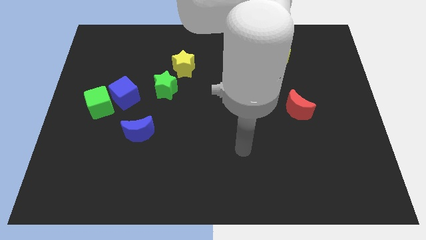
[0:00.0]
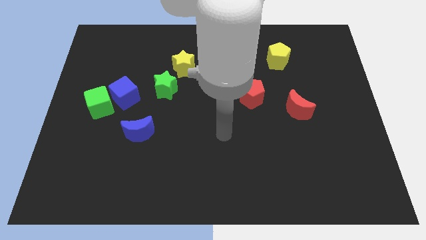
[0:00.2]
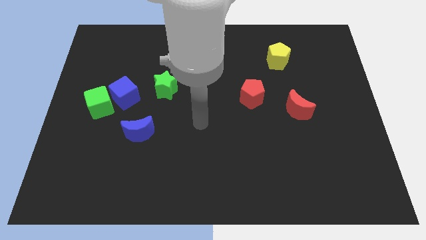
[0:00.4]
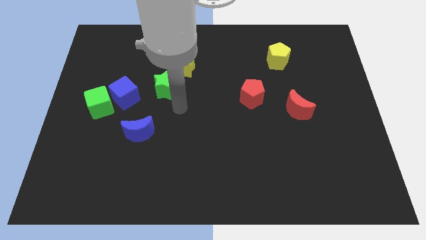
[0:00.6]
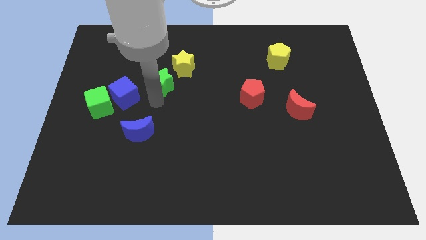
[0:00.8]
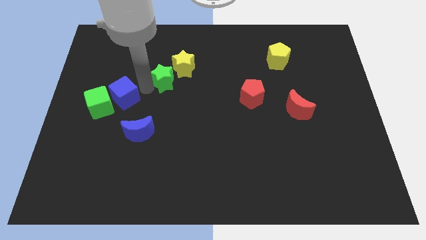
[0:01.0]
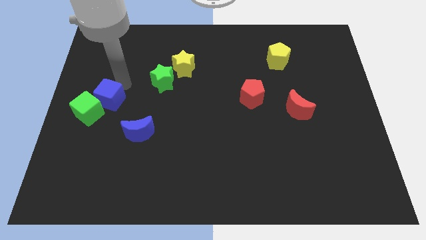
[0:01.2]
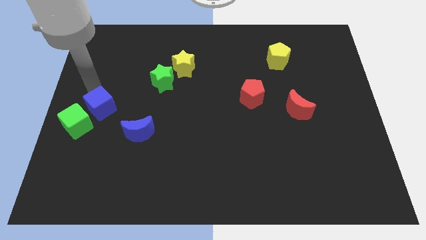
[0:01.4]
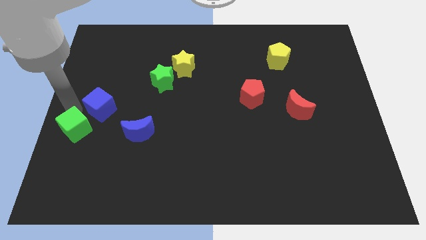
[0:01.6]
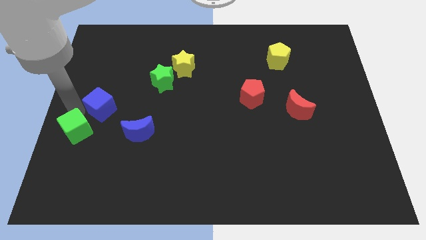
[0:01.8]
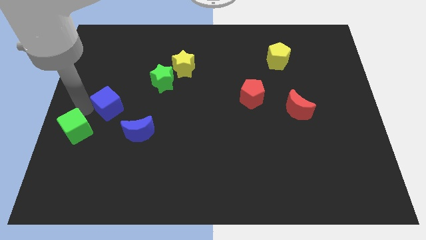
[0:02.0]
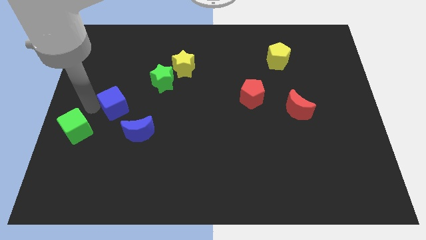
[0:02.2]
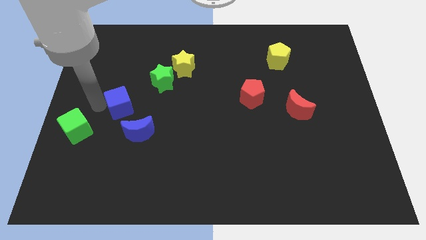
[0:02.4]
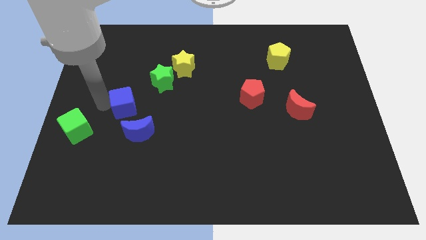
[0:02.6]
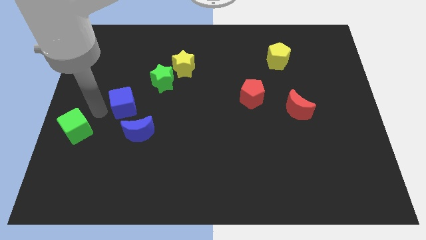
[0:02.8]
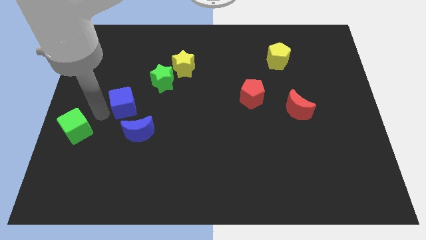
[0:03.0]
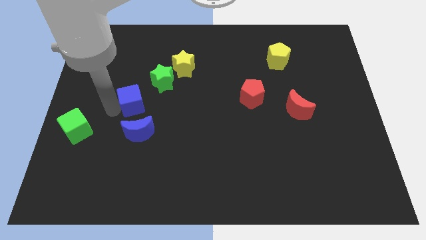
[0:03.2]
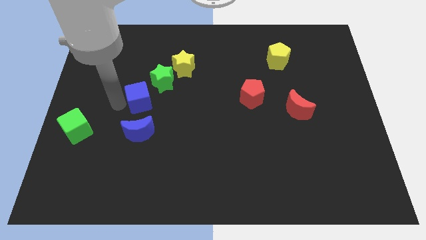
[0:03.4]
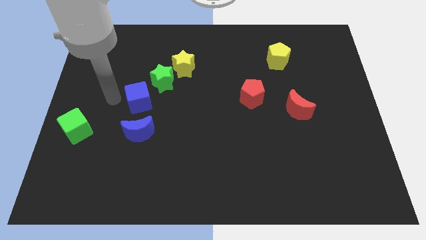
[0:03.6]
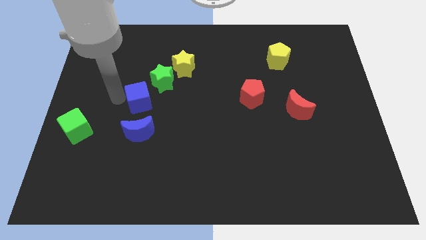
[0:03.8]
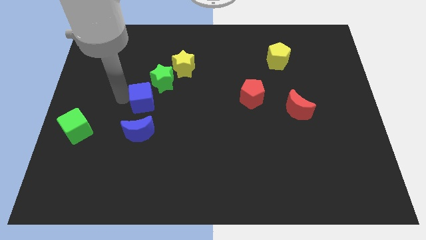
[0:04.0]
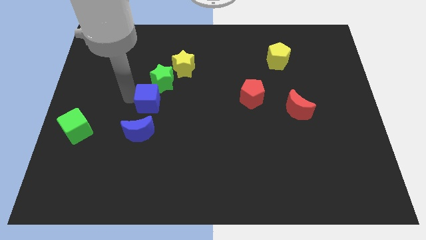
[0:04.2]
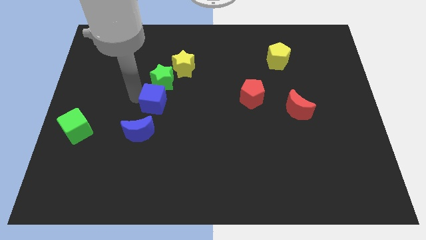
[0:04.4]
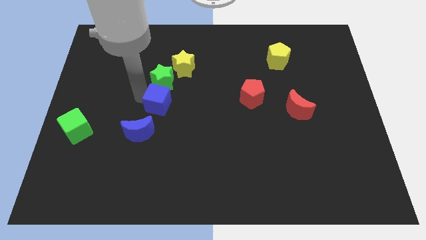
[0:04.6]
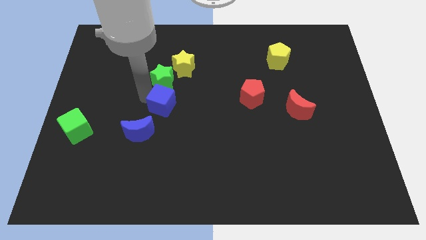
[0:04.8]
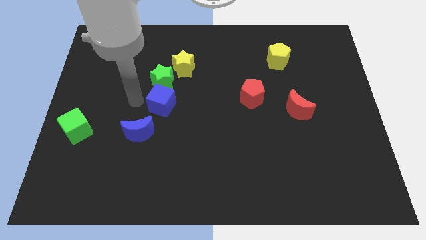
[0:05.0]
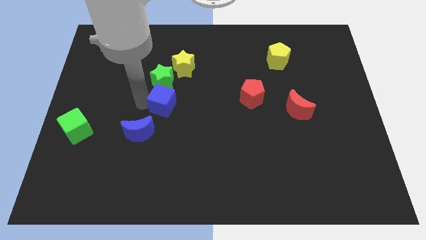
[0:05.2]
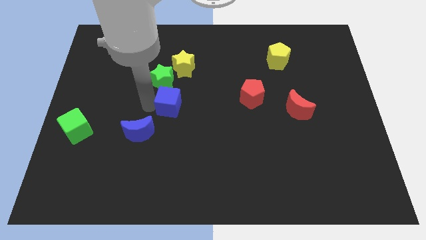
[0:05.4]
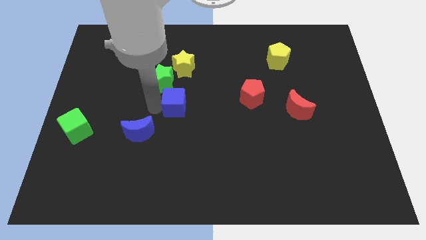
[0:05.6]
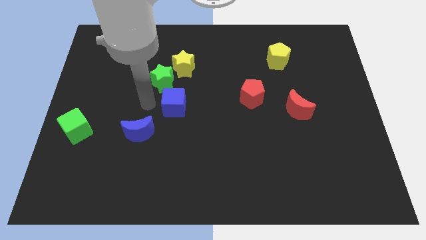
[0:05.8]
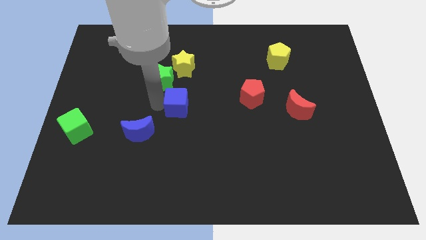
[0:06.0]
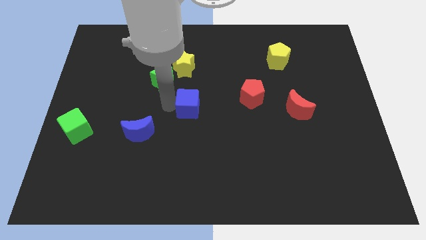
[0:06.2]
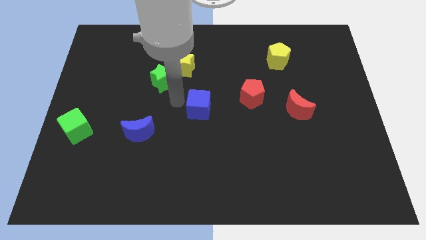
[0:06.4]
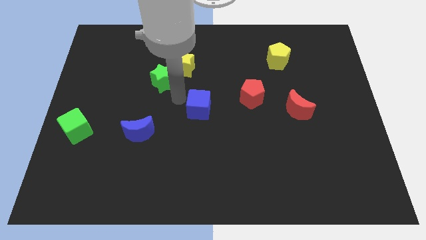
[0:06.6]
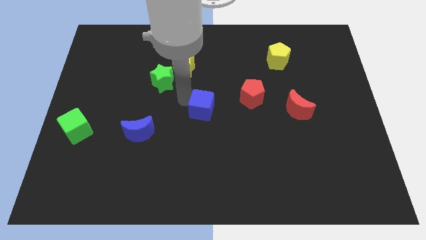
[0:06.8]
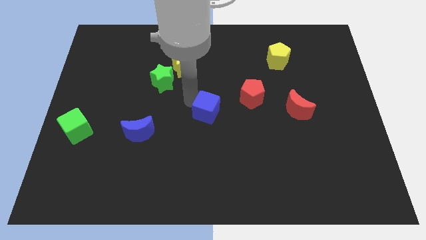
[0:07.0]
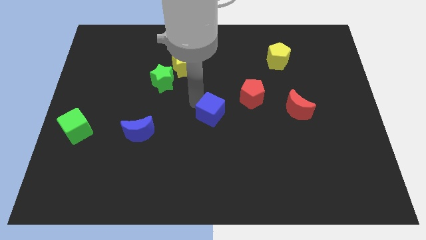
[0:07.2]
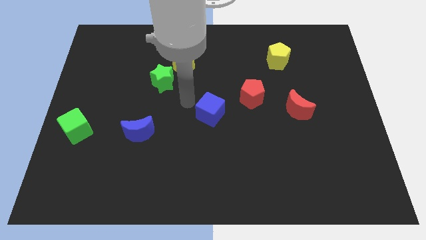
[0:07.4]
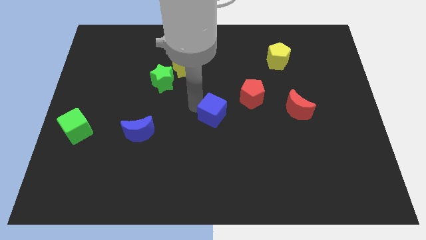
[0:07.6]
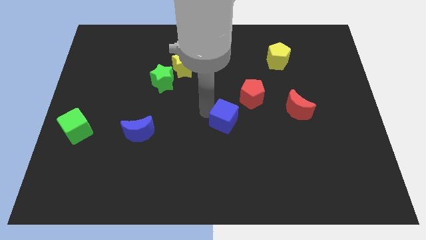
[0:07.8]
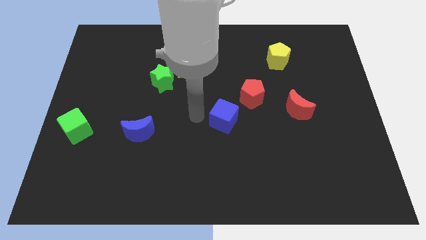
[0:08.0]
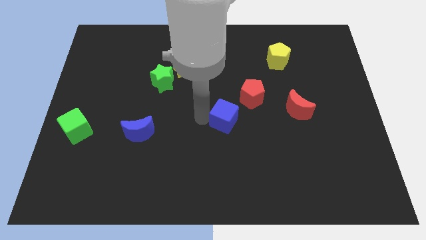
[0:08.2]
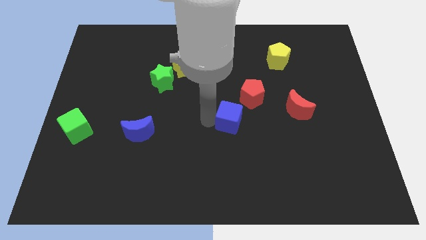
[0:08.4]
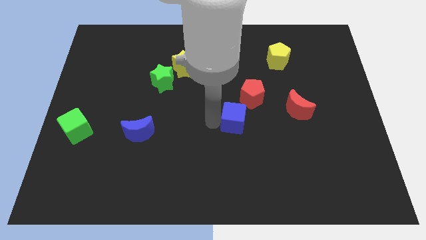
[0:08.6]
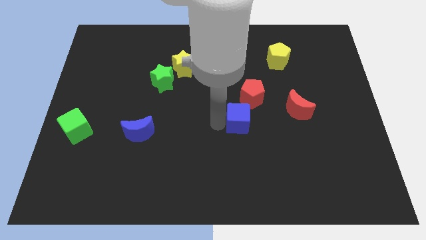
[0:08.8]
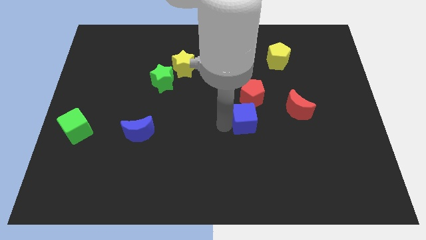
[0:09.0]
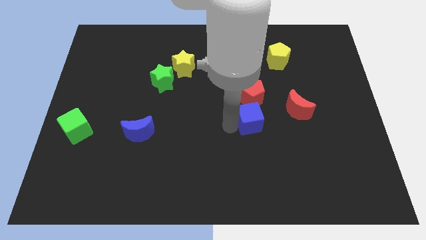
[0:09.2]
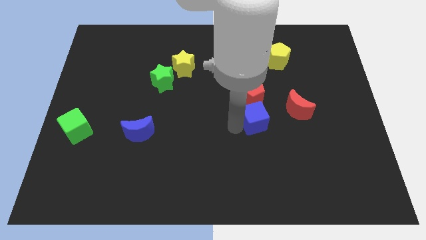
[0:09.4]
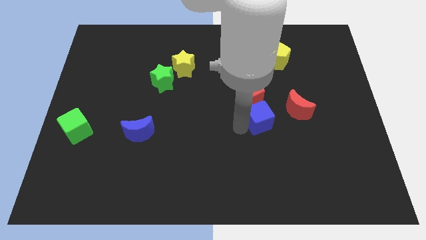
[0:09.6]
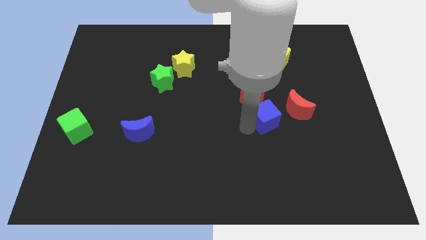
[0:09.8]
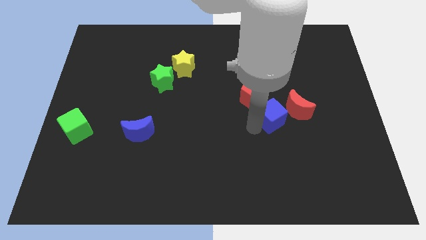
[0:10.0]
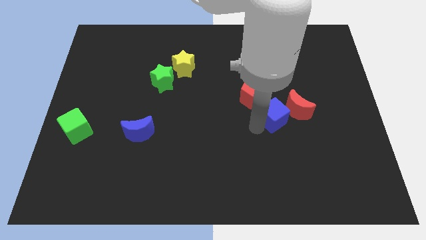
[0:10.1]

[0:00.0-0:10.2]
put the blue cube next to the red moon

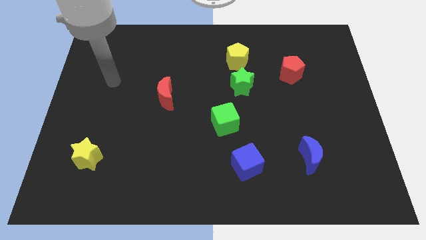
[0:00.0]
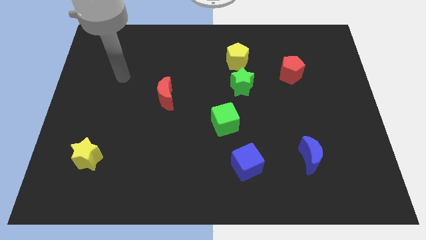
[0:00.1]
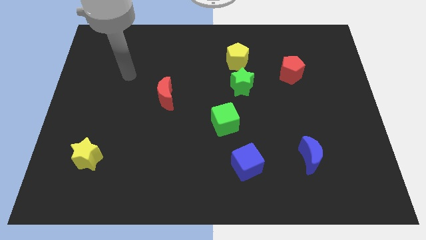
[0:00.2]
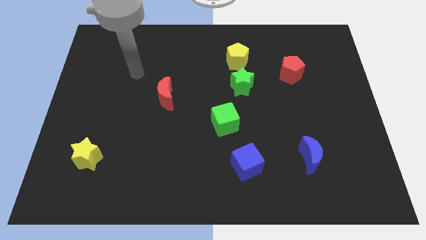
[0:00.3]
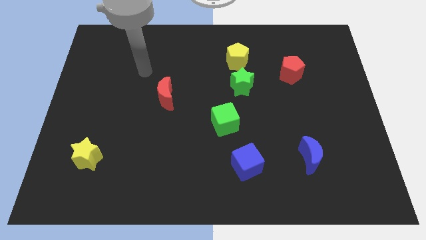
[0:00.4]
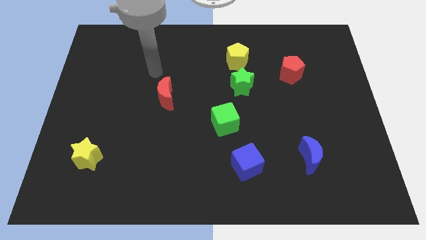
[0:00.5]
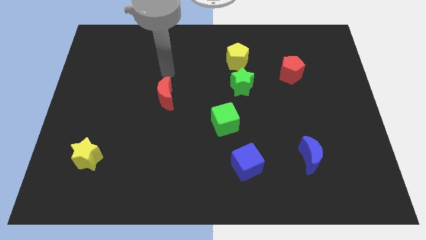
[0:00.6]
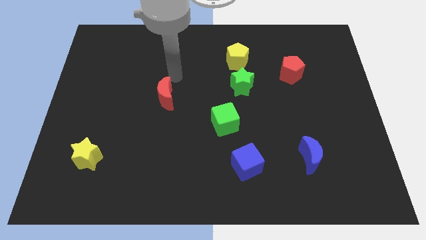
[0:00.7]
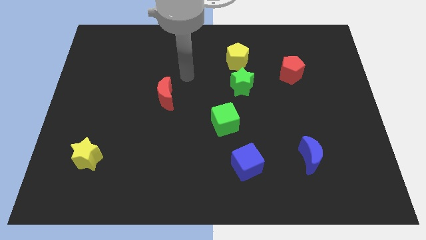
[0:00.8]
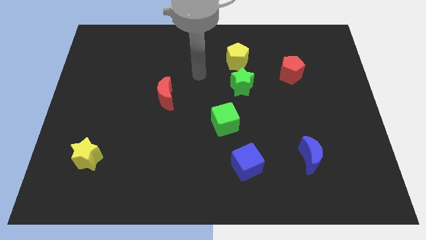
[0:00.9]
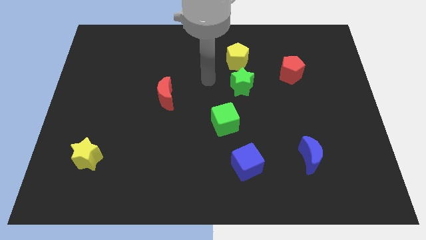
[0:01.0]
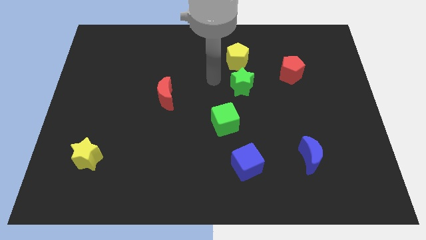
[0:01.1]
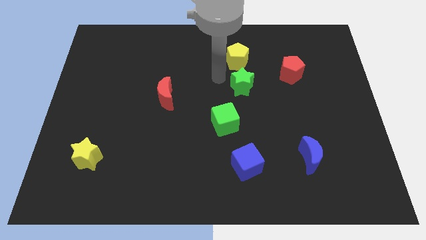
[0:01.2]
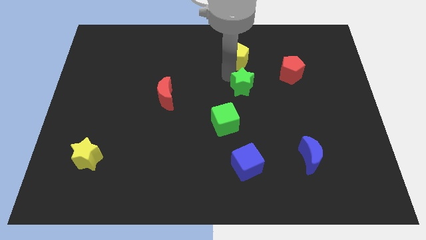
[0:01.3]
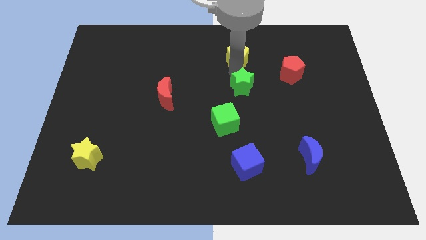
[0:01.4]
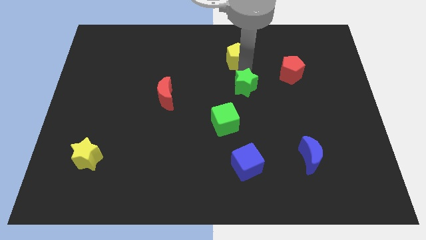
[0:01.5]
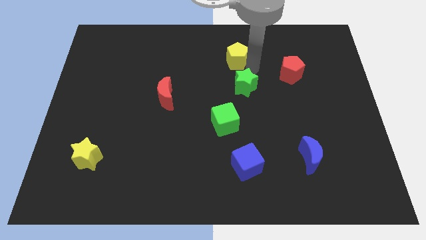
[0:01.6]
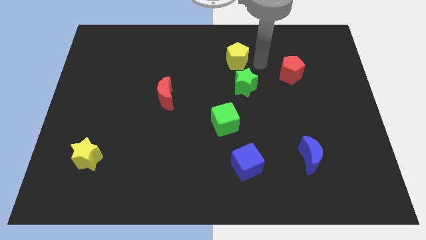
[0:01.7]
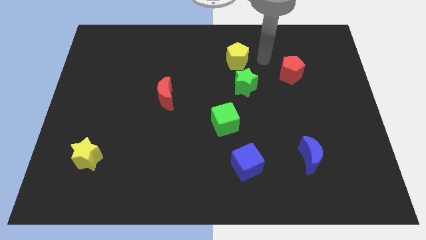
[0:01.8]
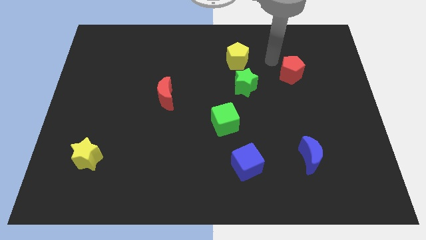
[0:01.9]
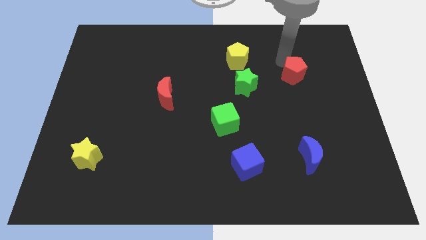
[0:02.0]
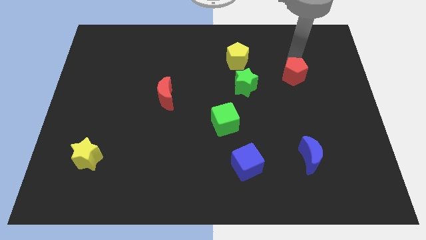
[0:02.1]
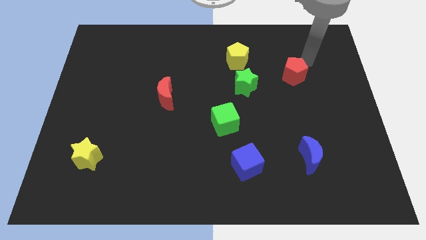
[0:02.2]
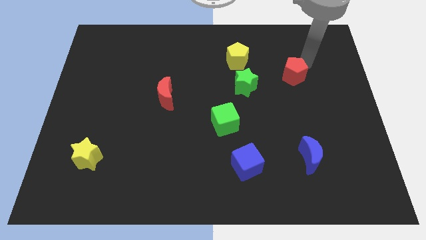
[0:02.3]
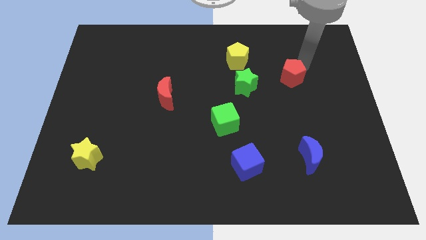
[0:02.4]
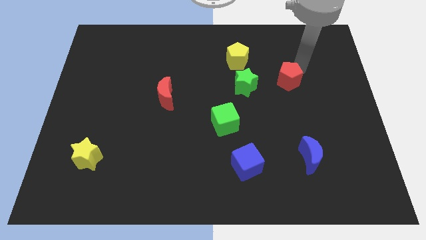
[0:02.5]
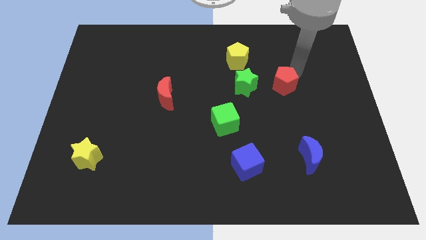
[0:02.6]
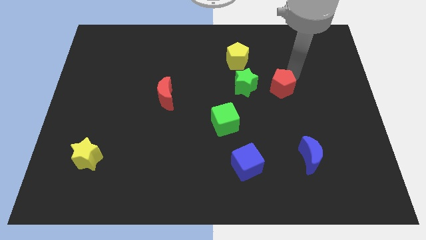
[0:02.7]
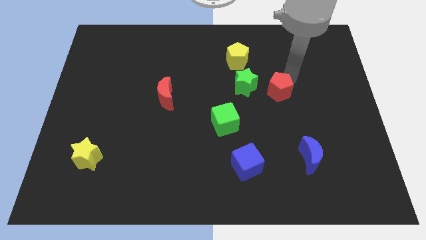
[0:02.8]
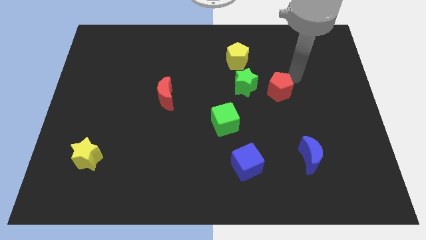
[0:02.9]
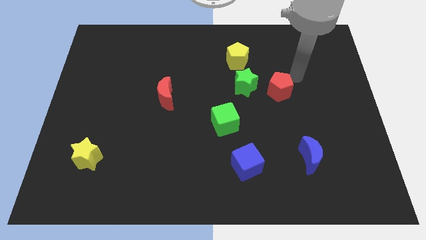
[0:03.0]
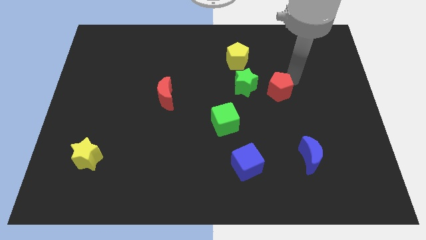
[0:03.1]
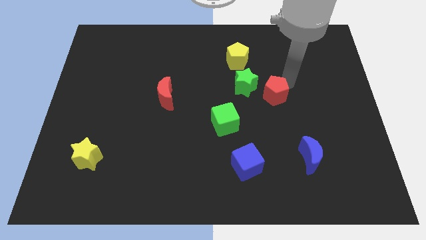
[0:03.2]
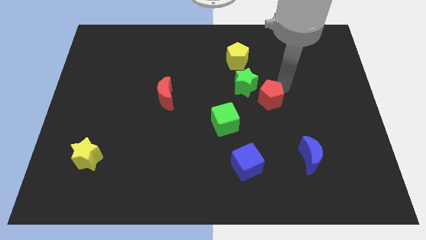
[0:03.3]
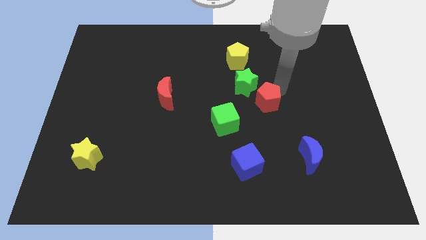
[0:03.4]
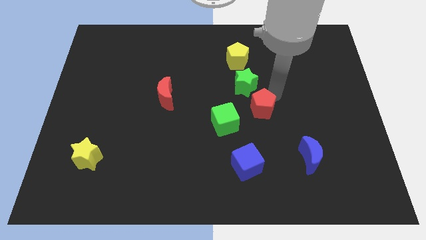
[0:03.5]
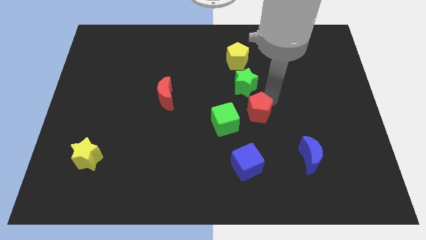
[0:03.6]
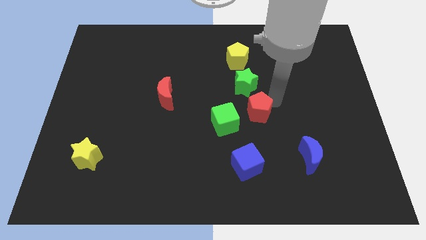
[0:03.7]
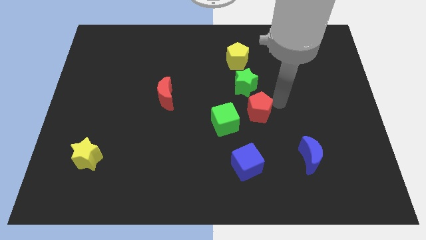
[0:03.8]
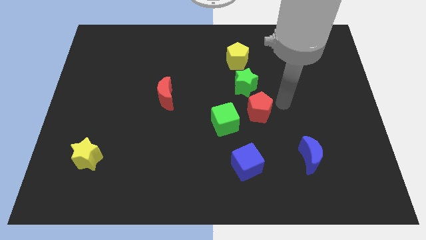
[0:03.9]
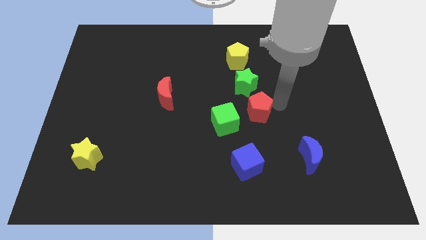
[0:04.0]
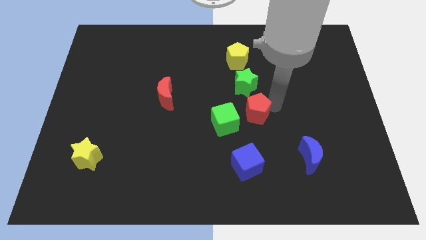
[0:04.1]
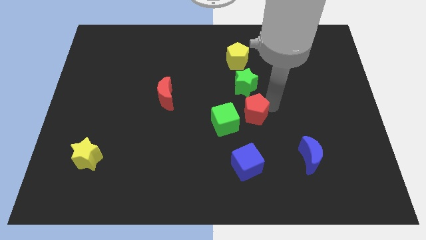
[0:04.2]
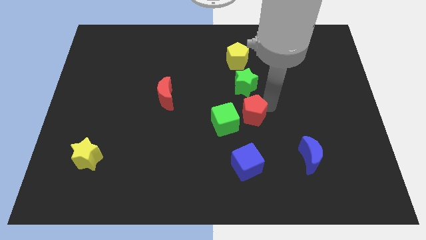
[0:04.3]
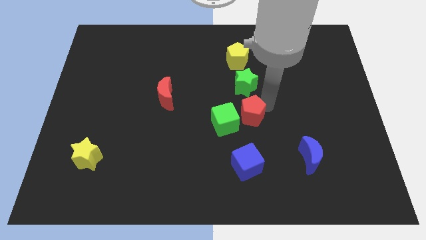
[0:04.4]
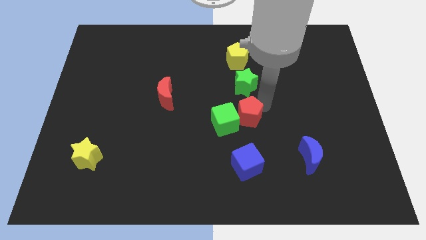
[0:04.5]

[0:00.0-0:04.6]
push the red pentagon towards the green cube
